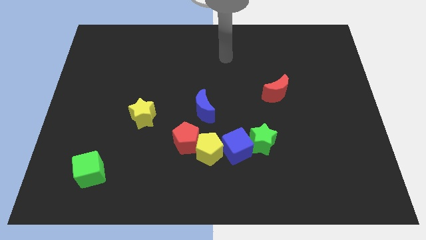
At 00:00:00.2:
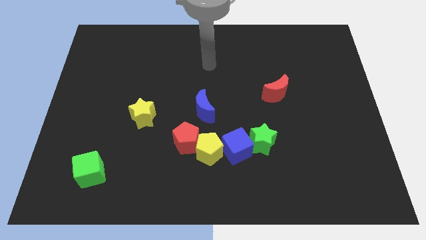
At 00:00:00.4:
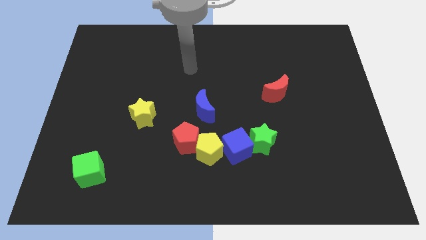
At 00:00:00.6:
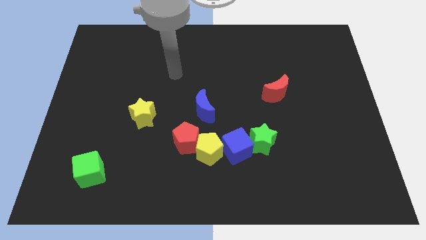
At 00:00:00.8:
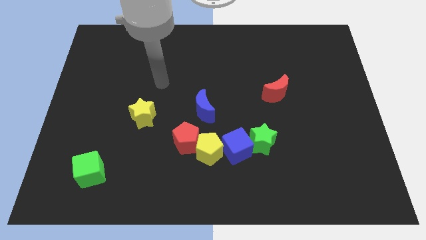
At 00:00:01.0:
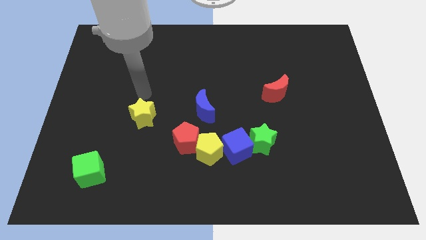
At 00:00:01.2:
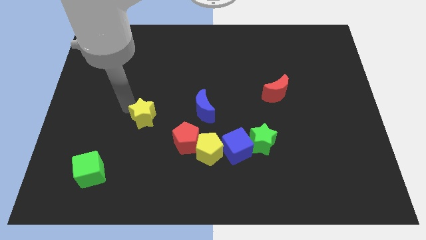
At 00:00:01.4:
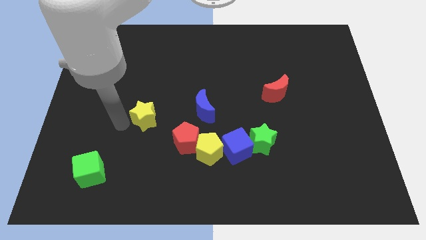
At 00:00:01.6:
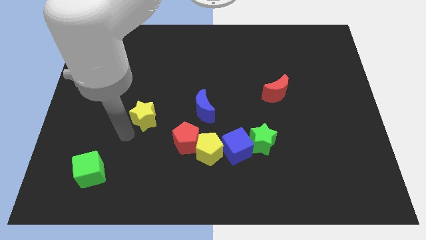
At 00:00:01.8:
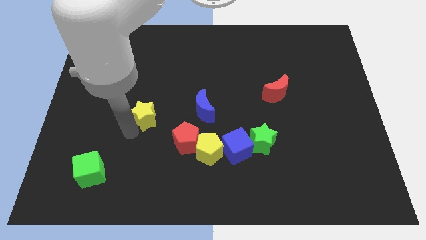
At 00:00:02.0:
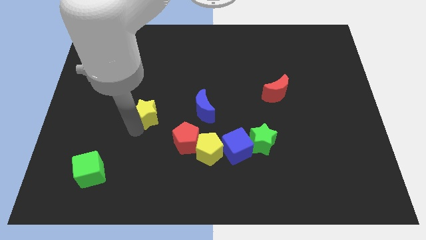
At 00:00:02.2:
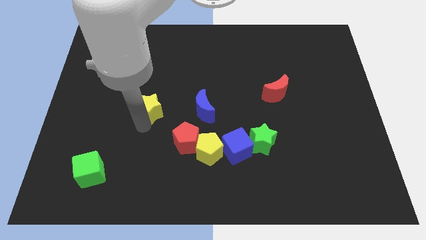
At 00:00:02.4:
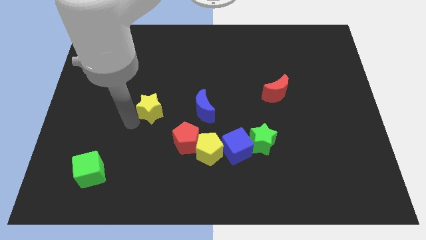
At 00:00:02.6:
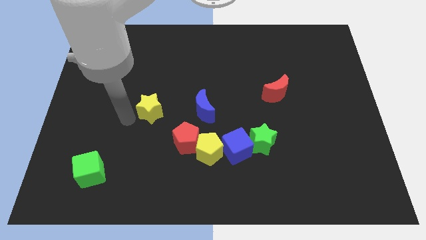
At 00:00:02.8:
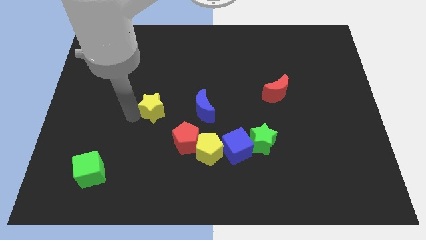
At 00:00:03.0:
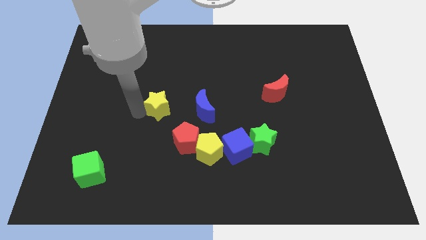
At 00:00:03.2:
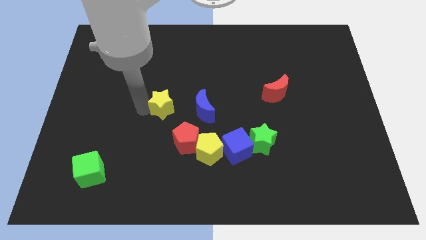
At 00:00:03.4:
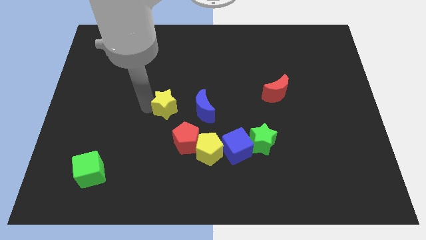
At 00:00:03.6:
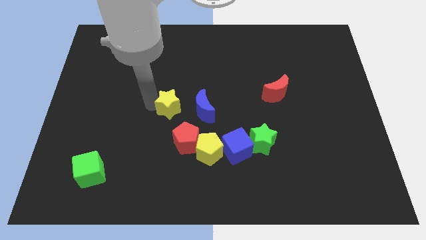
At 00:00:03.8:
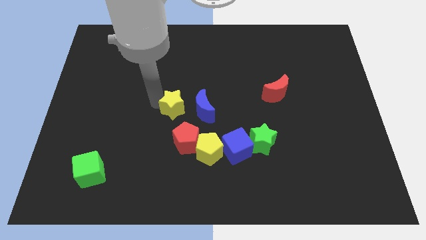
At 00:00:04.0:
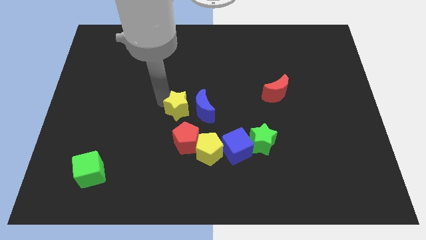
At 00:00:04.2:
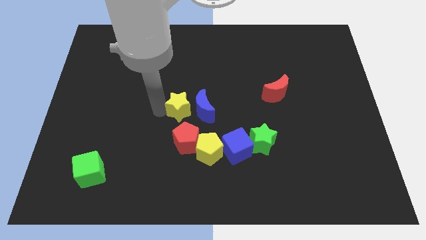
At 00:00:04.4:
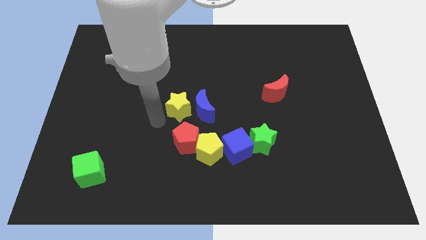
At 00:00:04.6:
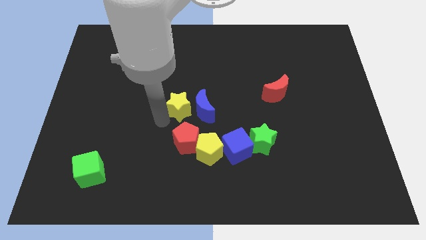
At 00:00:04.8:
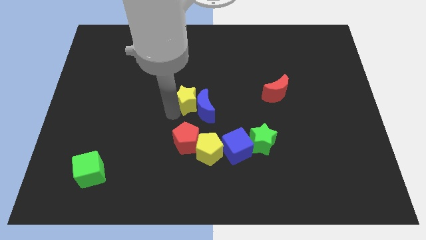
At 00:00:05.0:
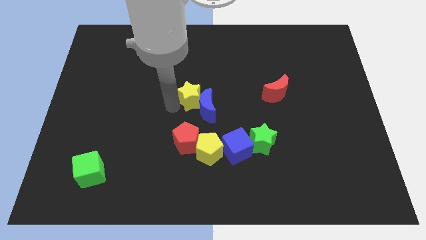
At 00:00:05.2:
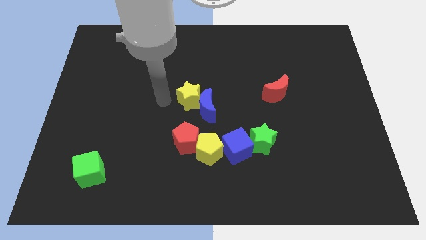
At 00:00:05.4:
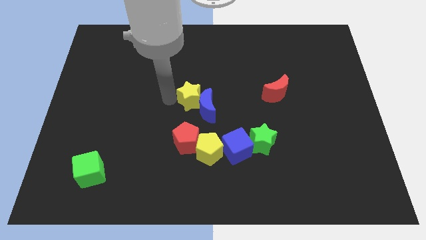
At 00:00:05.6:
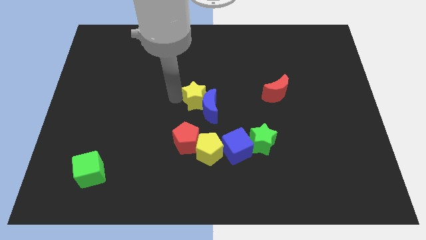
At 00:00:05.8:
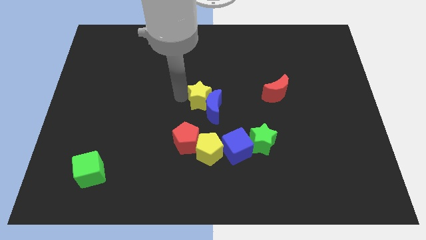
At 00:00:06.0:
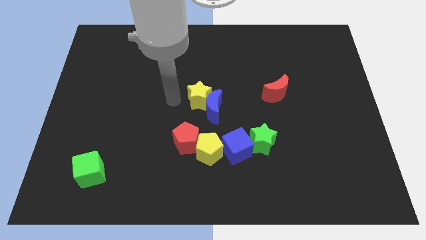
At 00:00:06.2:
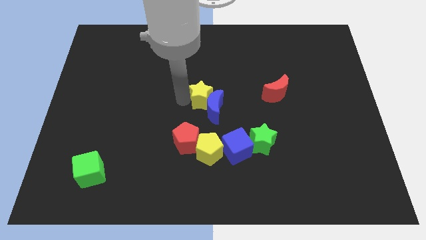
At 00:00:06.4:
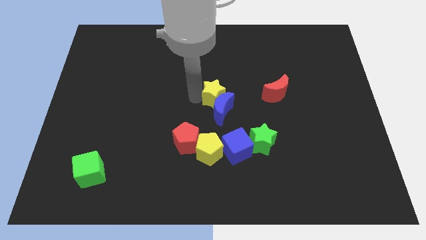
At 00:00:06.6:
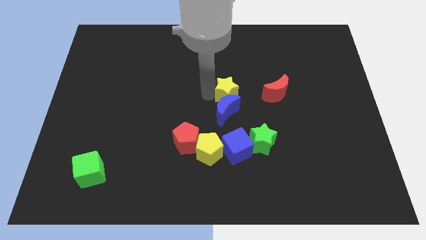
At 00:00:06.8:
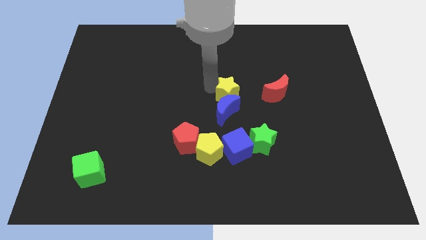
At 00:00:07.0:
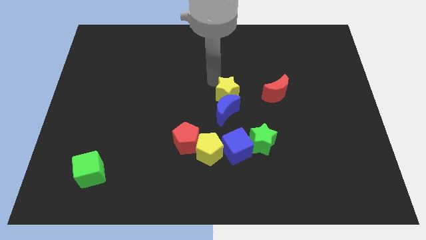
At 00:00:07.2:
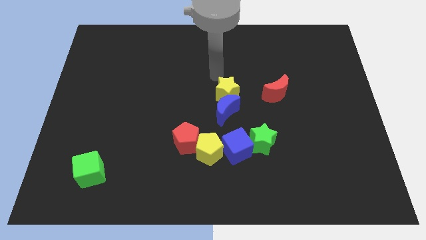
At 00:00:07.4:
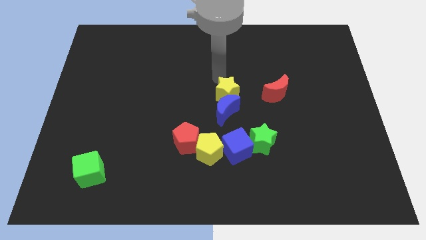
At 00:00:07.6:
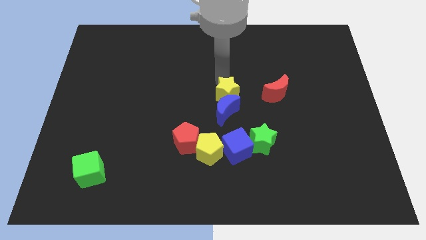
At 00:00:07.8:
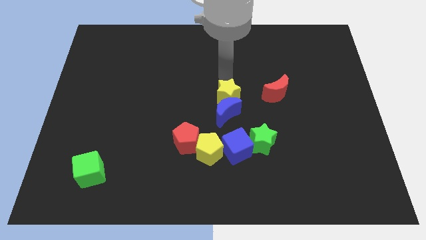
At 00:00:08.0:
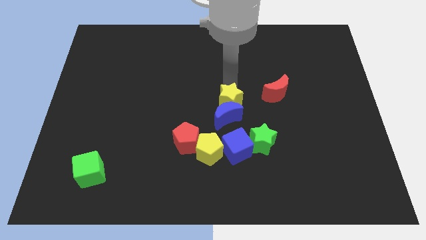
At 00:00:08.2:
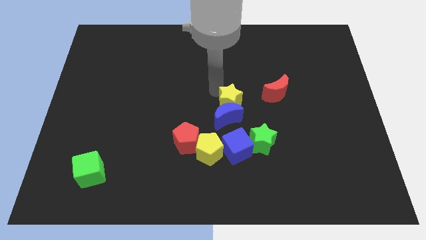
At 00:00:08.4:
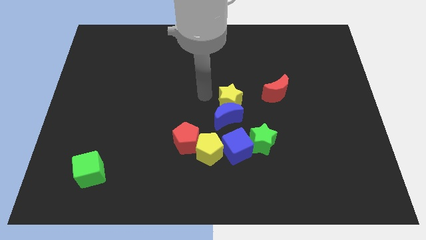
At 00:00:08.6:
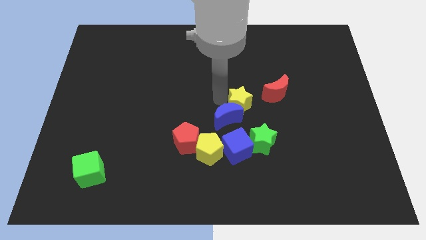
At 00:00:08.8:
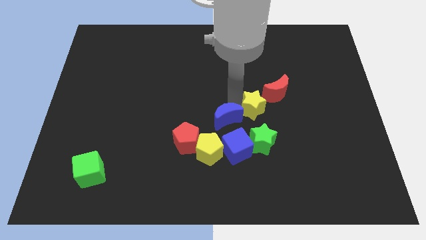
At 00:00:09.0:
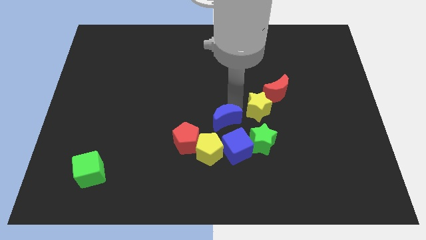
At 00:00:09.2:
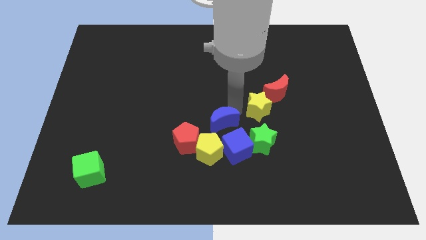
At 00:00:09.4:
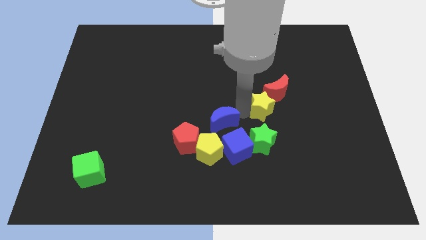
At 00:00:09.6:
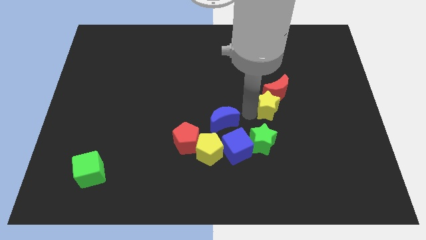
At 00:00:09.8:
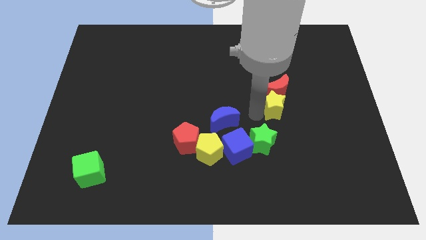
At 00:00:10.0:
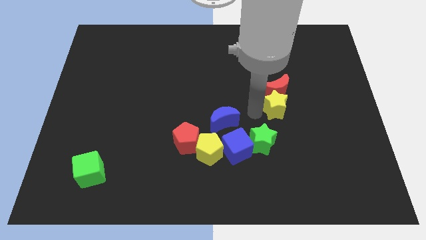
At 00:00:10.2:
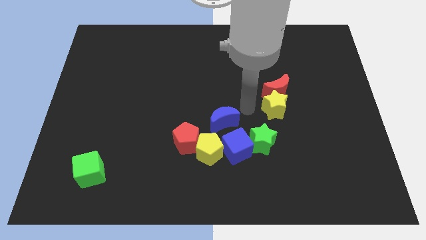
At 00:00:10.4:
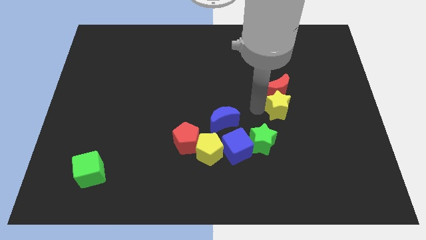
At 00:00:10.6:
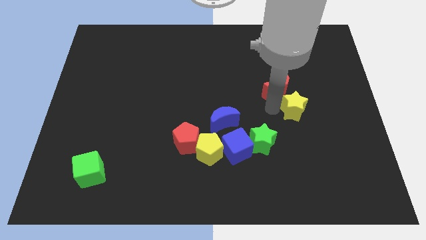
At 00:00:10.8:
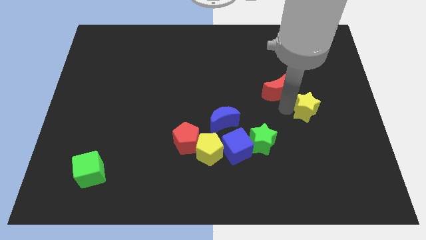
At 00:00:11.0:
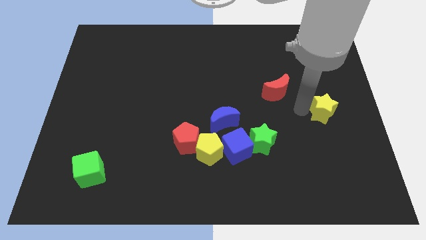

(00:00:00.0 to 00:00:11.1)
put the yellow star to the right side of the board

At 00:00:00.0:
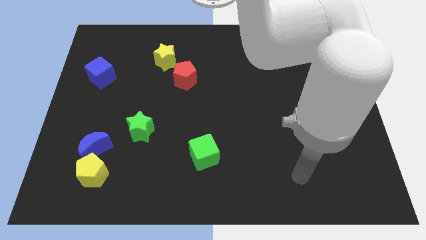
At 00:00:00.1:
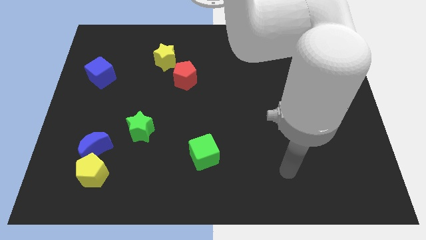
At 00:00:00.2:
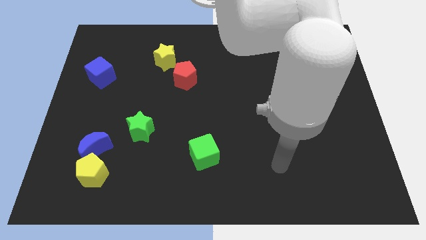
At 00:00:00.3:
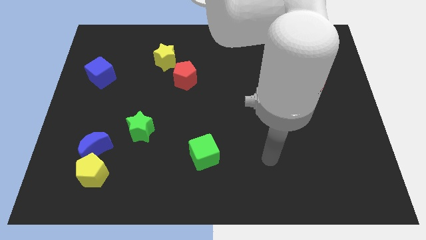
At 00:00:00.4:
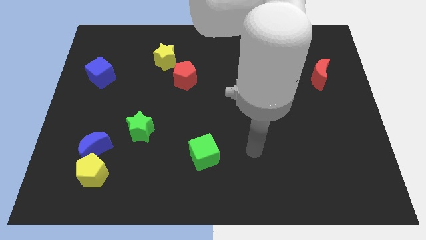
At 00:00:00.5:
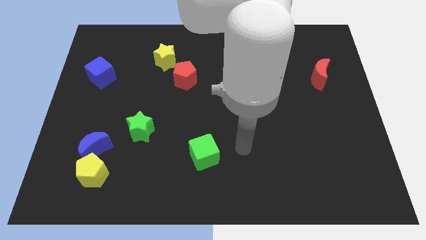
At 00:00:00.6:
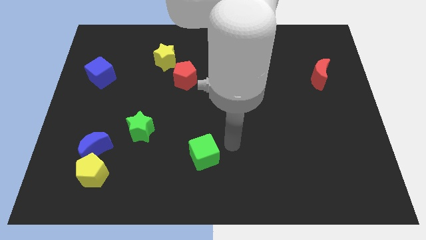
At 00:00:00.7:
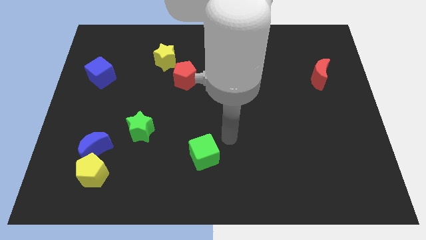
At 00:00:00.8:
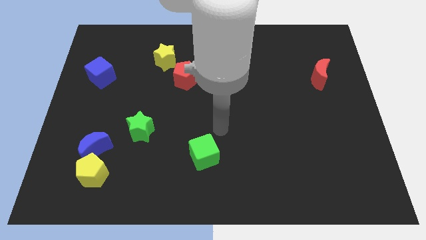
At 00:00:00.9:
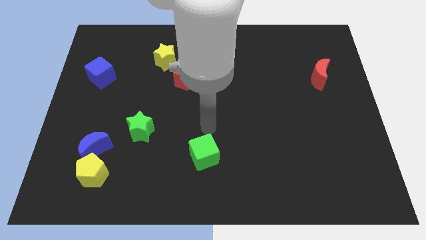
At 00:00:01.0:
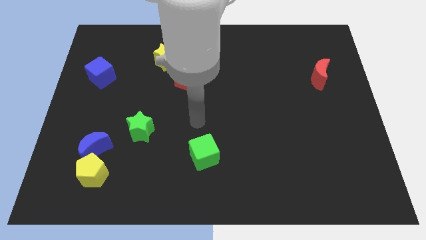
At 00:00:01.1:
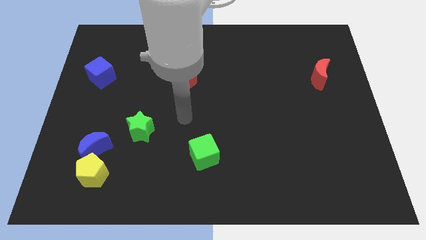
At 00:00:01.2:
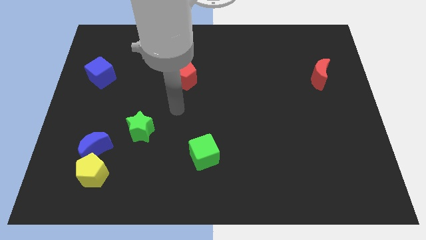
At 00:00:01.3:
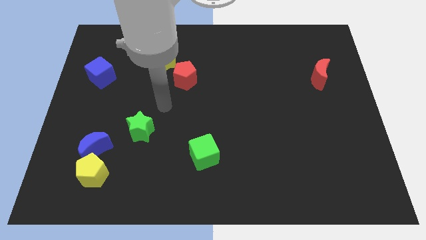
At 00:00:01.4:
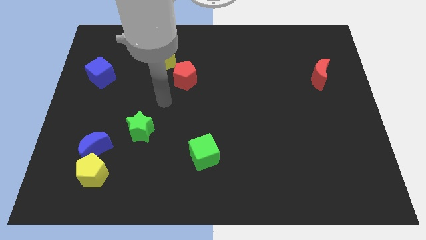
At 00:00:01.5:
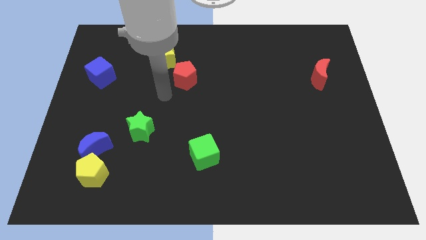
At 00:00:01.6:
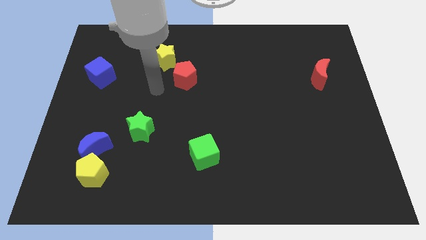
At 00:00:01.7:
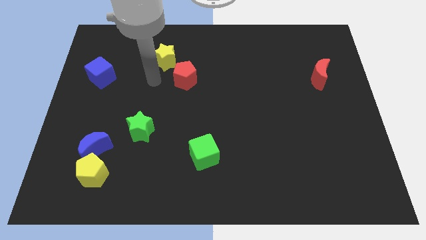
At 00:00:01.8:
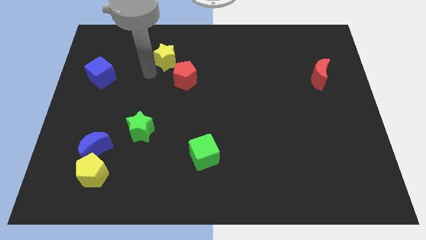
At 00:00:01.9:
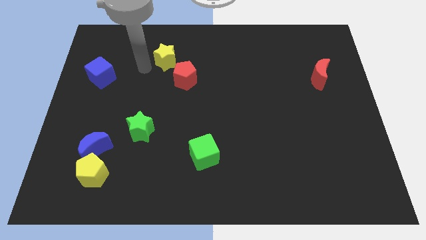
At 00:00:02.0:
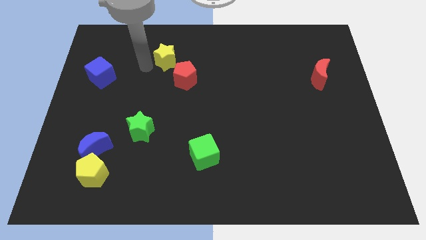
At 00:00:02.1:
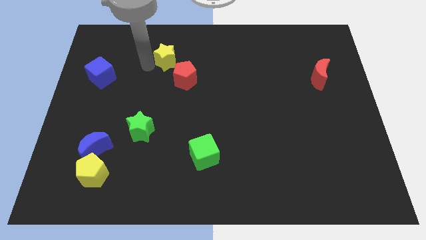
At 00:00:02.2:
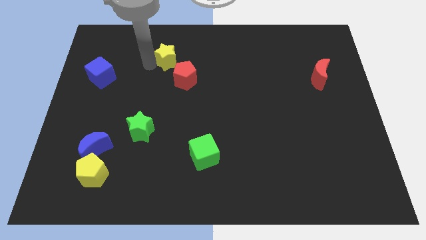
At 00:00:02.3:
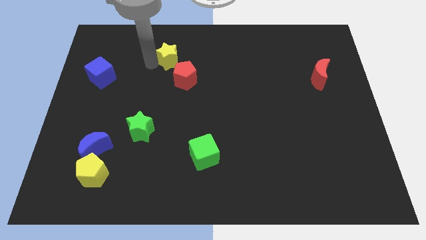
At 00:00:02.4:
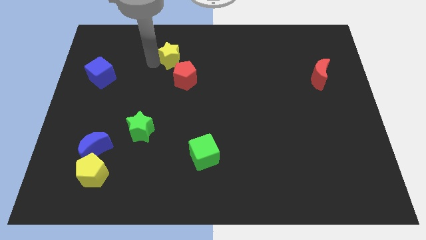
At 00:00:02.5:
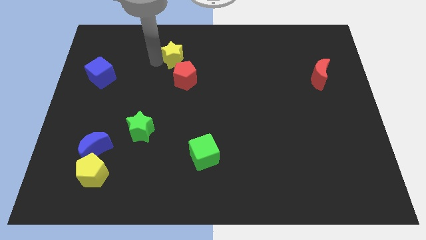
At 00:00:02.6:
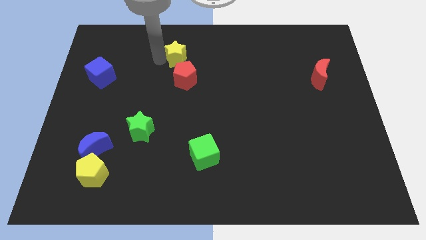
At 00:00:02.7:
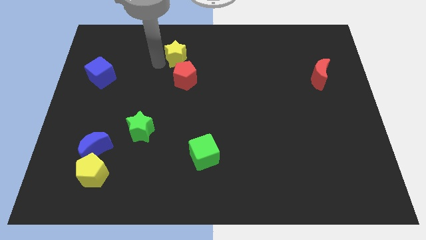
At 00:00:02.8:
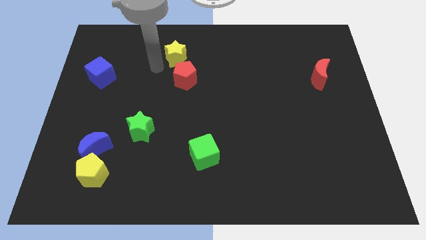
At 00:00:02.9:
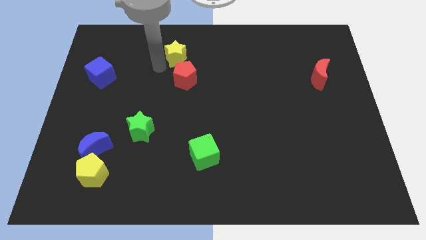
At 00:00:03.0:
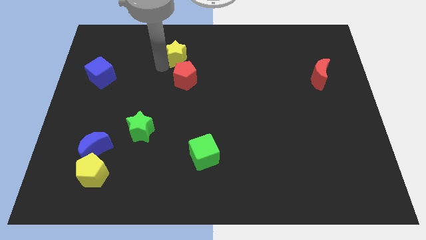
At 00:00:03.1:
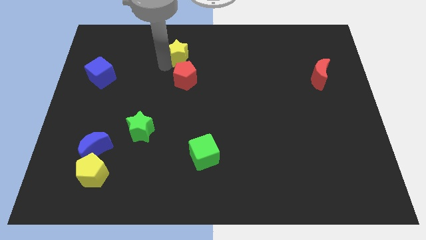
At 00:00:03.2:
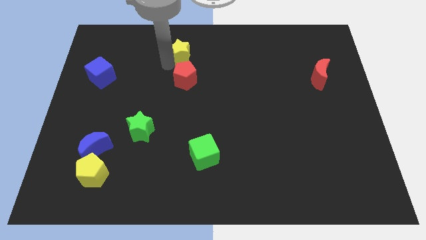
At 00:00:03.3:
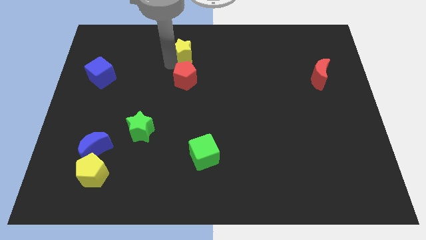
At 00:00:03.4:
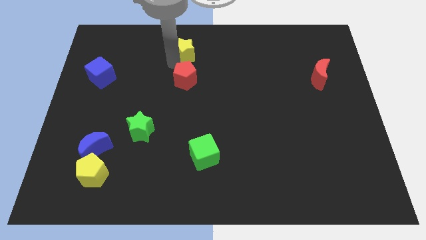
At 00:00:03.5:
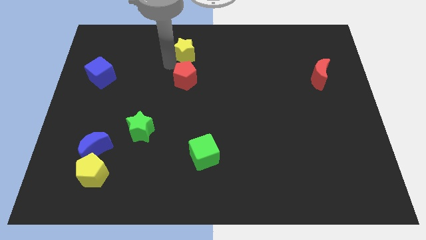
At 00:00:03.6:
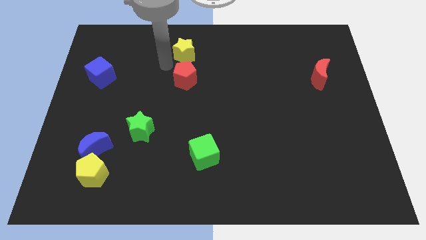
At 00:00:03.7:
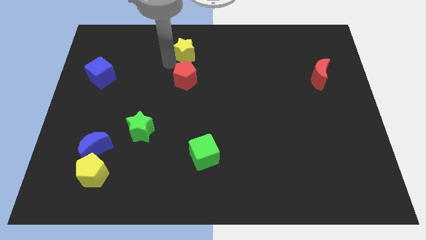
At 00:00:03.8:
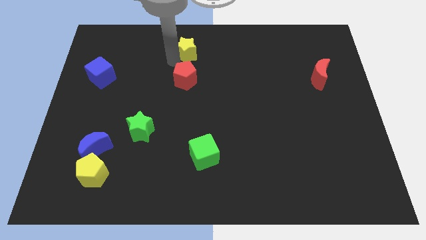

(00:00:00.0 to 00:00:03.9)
put the yellow star to the top side
